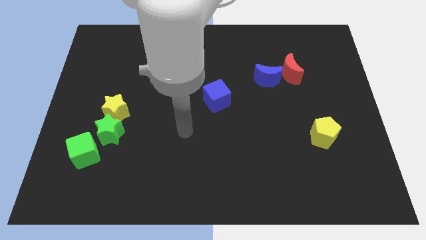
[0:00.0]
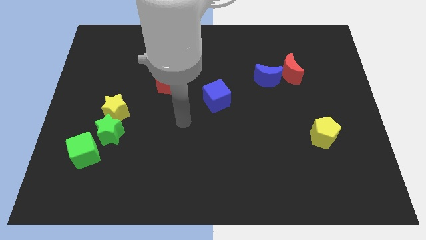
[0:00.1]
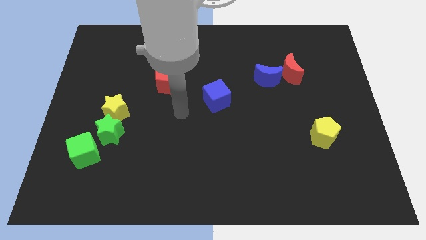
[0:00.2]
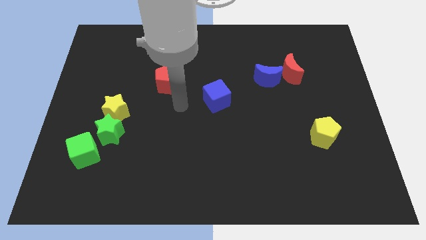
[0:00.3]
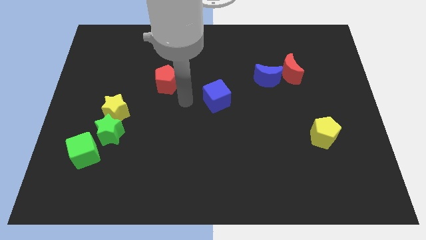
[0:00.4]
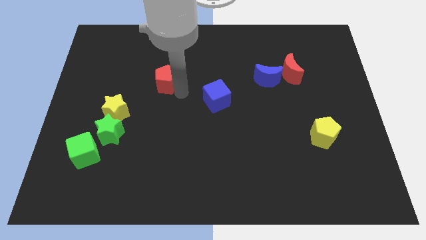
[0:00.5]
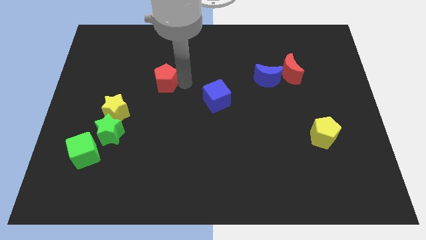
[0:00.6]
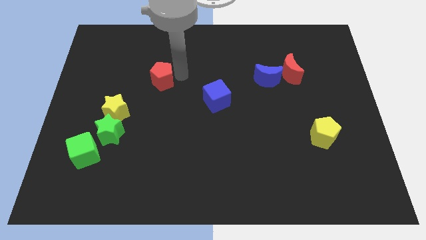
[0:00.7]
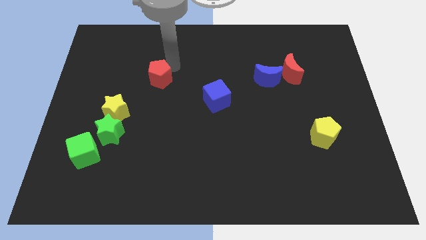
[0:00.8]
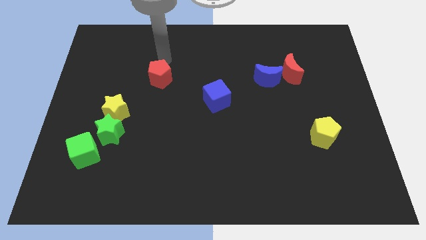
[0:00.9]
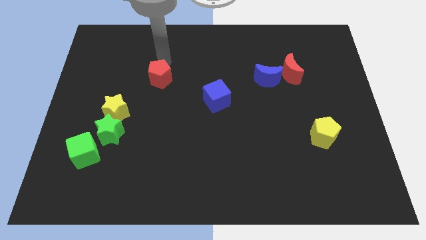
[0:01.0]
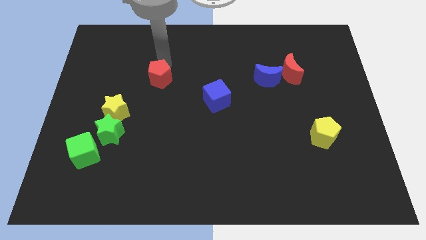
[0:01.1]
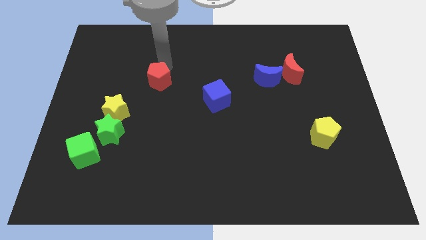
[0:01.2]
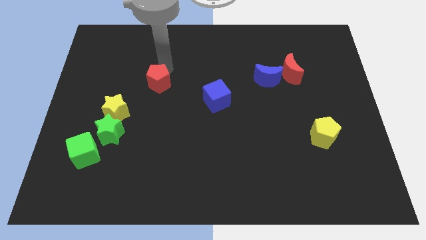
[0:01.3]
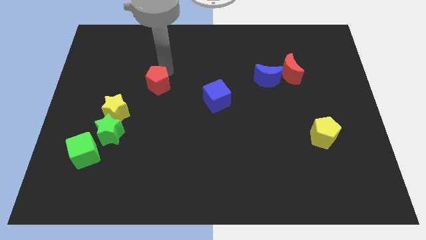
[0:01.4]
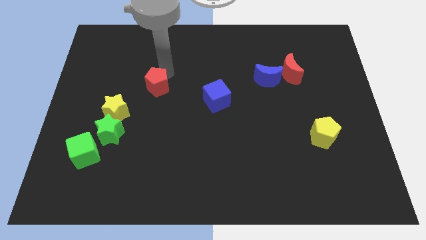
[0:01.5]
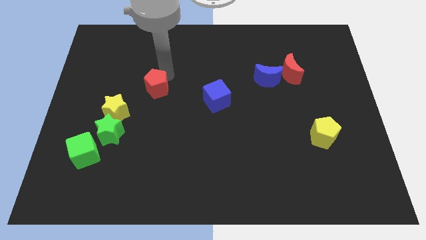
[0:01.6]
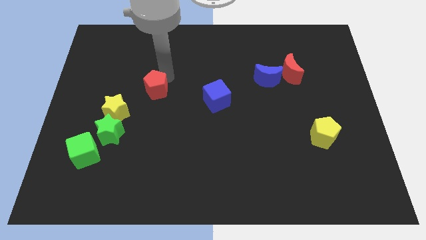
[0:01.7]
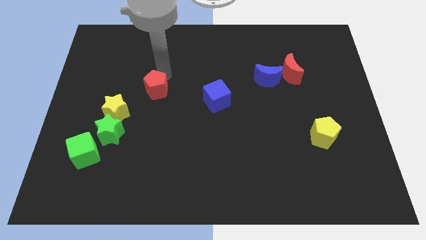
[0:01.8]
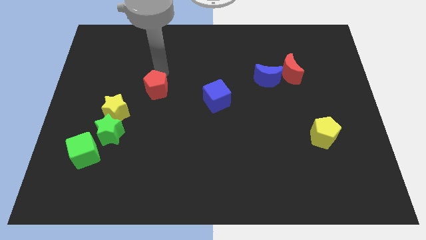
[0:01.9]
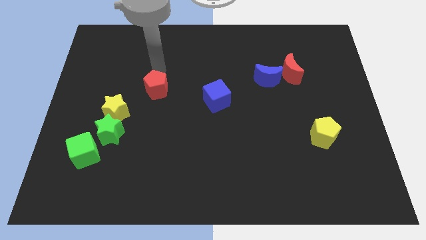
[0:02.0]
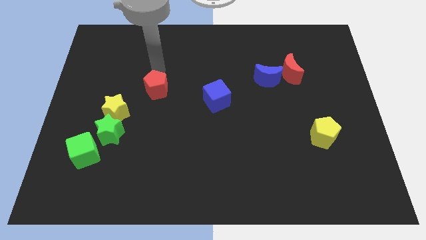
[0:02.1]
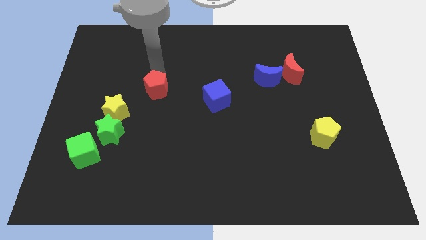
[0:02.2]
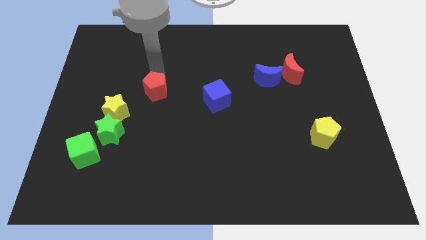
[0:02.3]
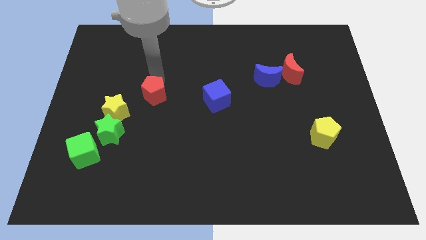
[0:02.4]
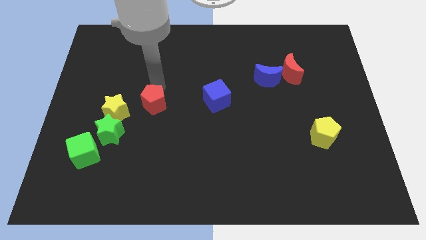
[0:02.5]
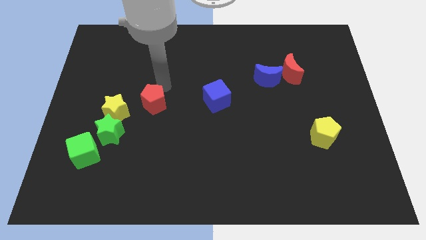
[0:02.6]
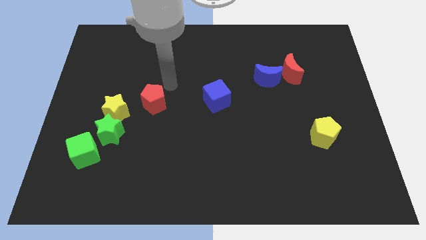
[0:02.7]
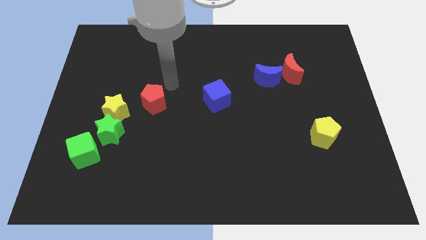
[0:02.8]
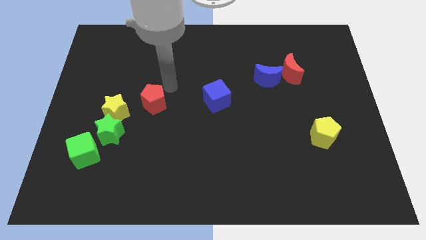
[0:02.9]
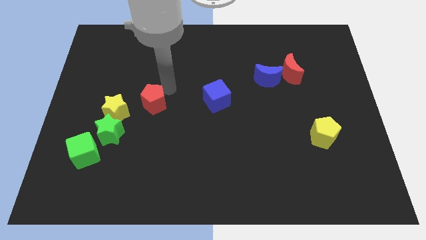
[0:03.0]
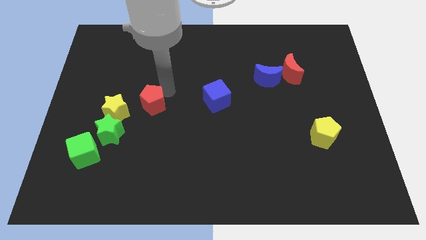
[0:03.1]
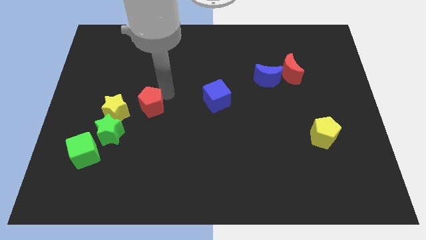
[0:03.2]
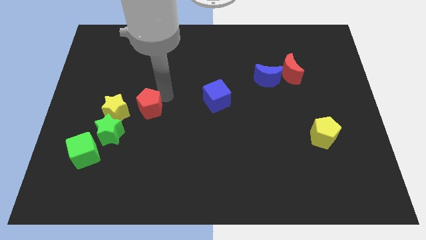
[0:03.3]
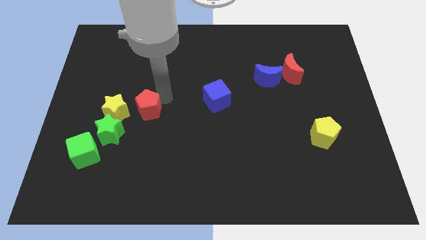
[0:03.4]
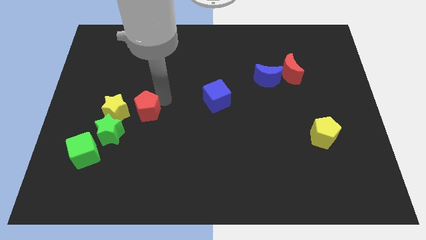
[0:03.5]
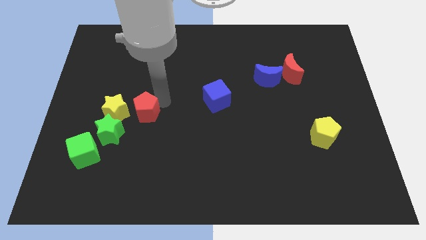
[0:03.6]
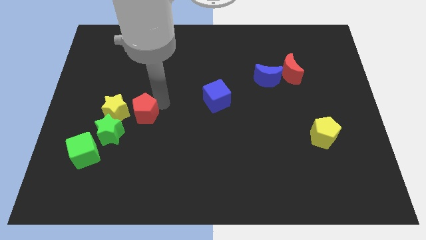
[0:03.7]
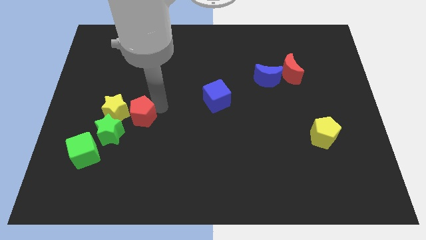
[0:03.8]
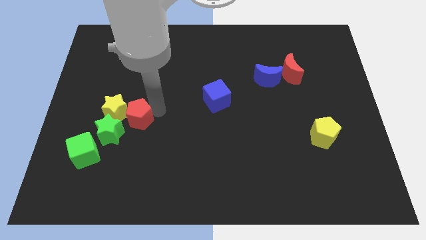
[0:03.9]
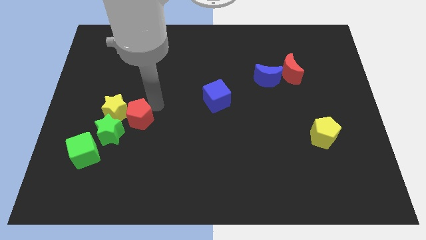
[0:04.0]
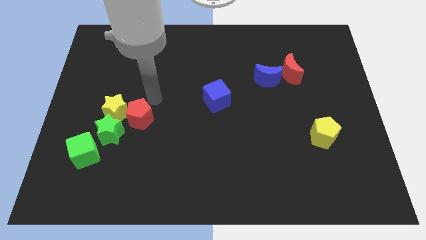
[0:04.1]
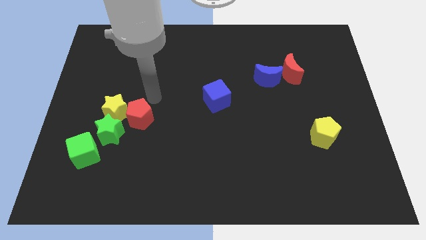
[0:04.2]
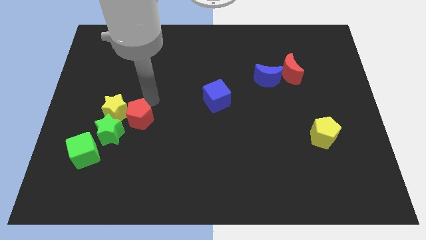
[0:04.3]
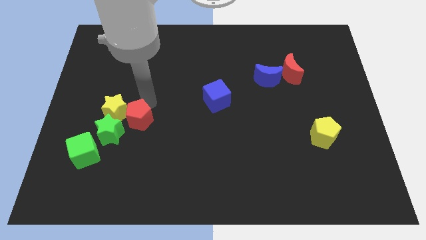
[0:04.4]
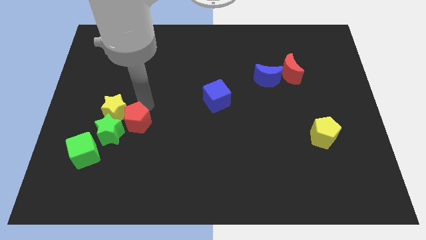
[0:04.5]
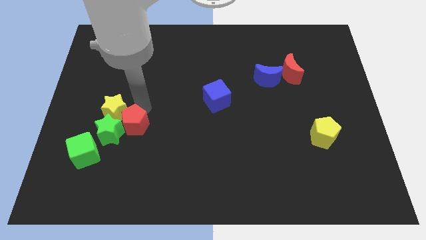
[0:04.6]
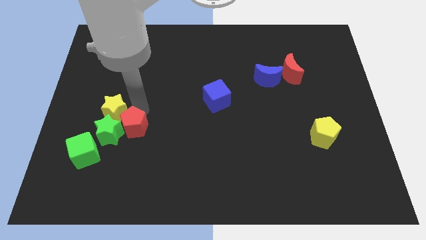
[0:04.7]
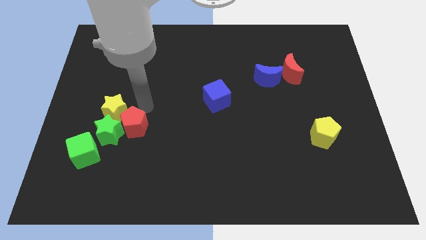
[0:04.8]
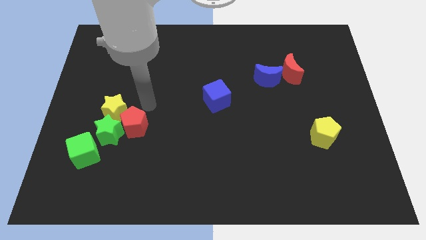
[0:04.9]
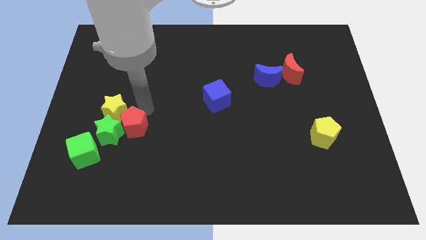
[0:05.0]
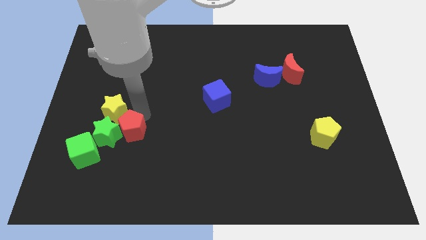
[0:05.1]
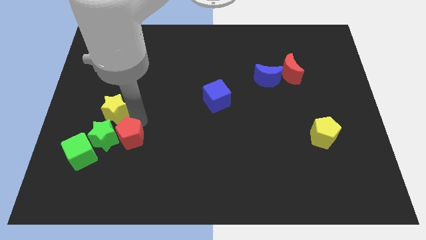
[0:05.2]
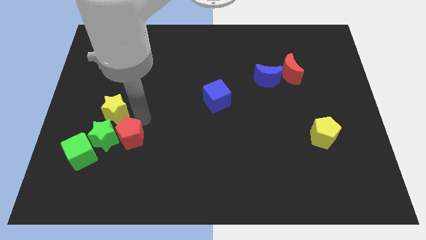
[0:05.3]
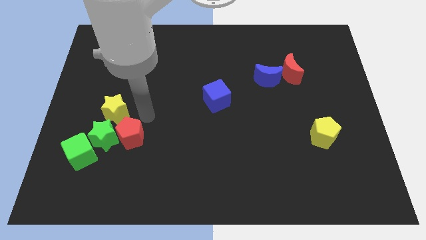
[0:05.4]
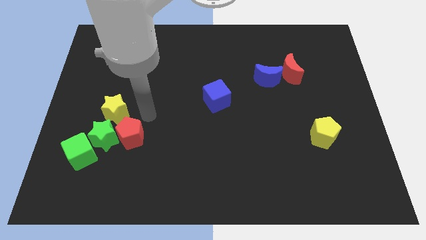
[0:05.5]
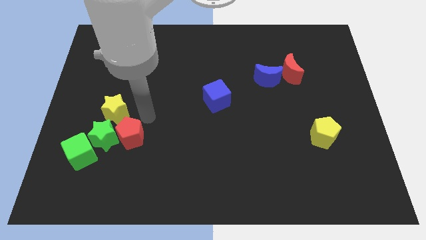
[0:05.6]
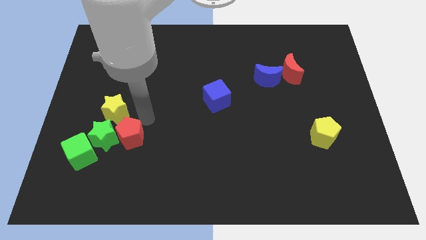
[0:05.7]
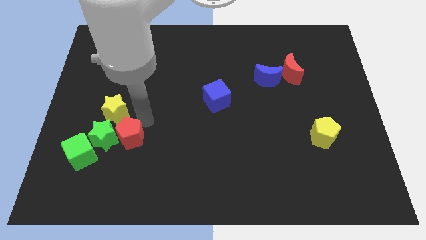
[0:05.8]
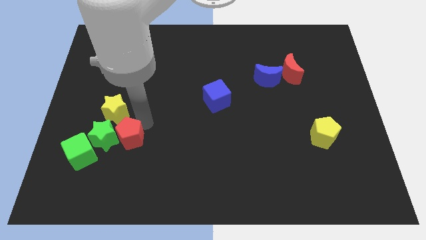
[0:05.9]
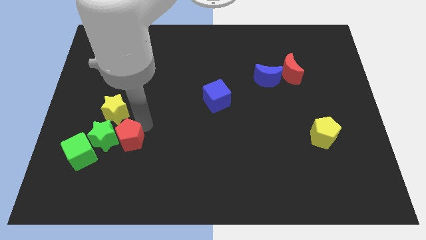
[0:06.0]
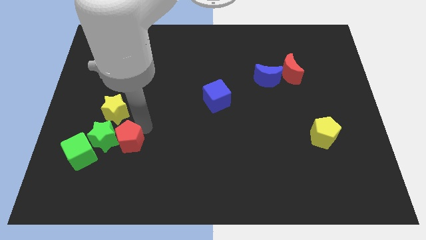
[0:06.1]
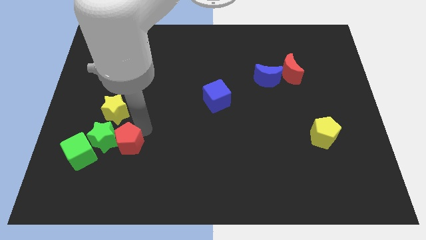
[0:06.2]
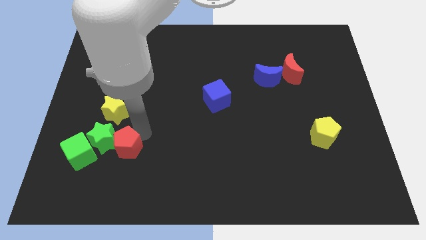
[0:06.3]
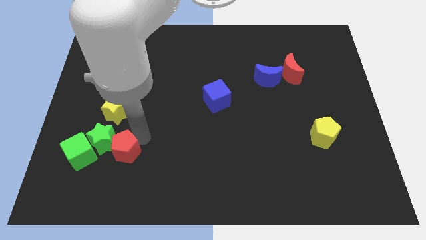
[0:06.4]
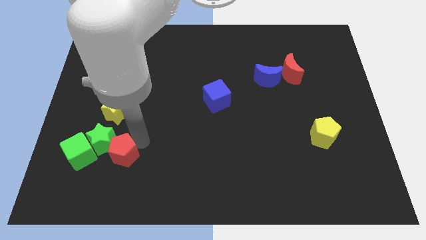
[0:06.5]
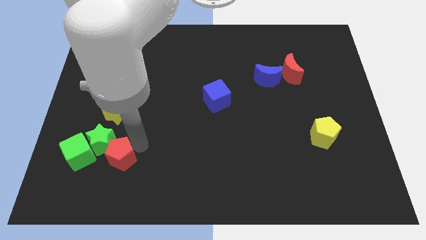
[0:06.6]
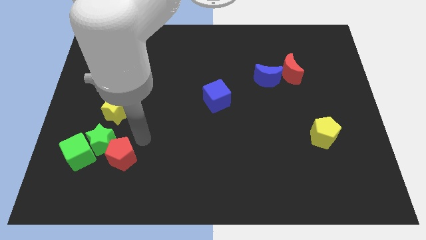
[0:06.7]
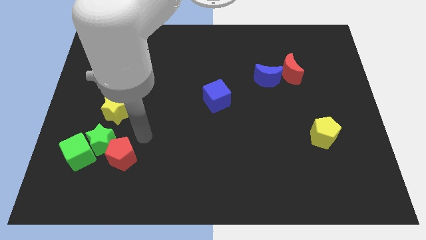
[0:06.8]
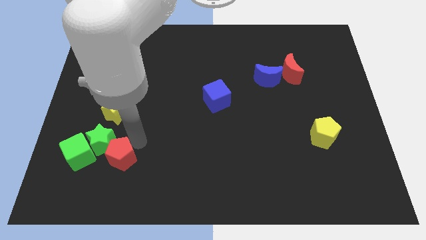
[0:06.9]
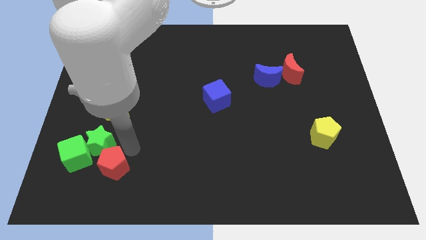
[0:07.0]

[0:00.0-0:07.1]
push the red pentagon to the bottom of the green star
